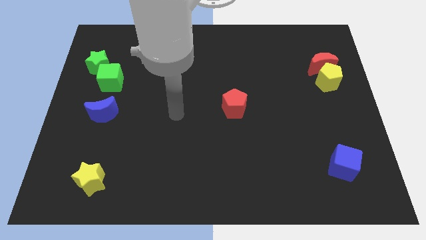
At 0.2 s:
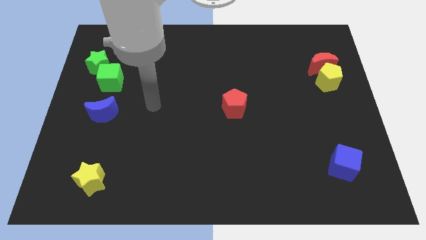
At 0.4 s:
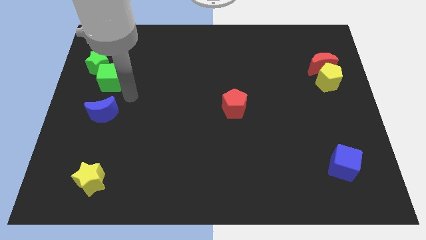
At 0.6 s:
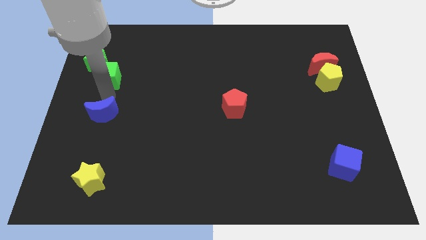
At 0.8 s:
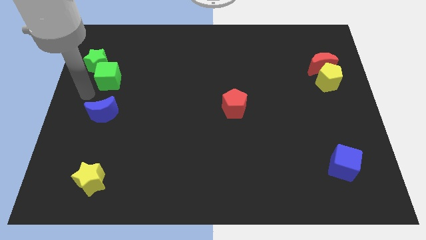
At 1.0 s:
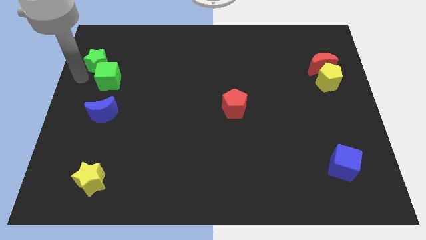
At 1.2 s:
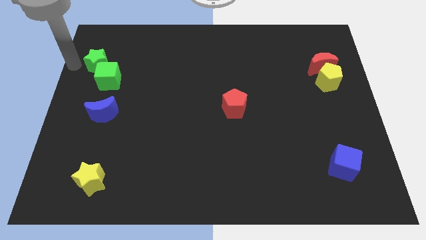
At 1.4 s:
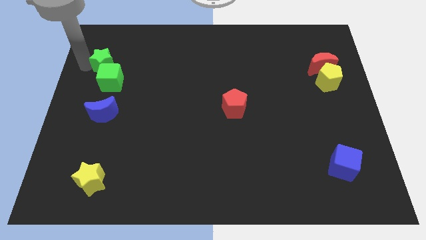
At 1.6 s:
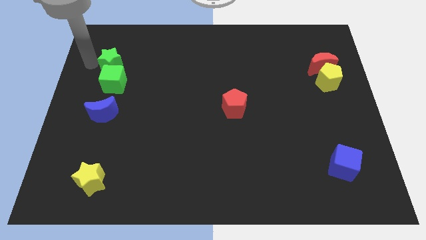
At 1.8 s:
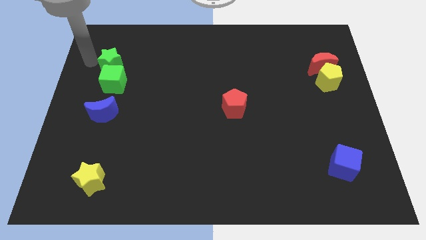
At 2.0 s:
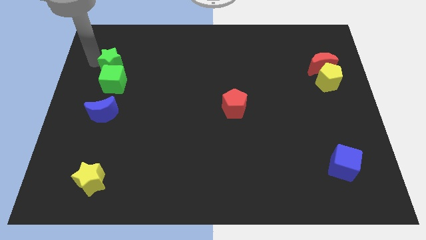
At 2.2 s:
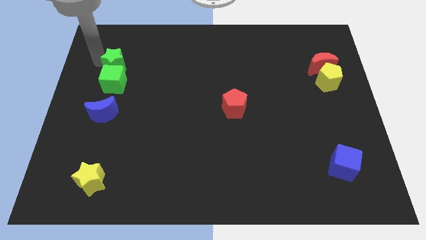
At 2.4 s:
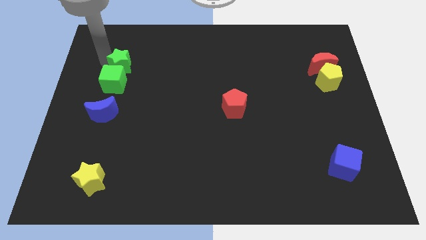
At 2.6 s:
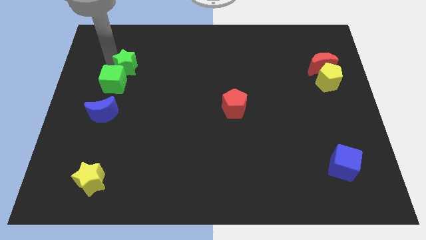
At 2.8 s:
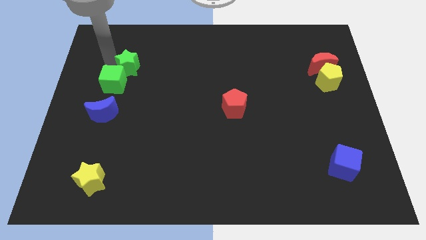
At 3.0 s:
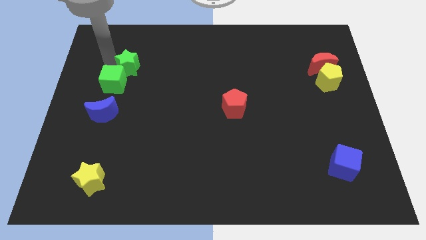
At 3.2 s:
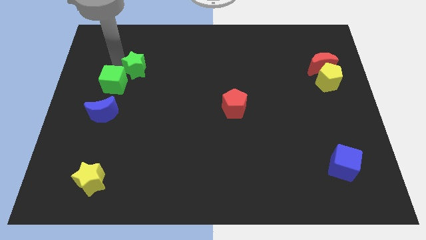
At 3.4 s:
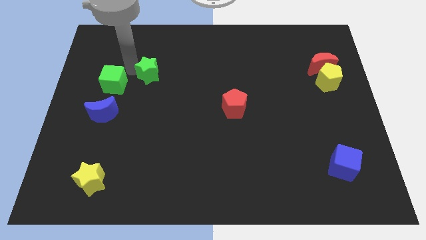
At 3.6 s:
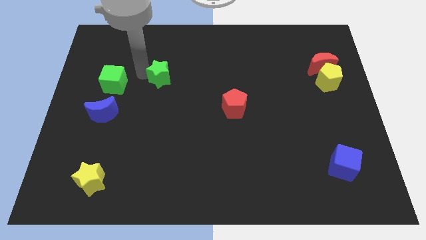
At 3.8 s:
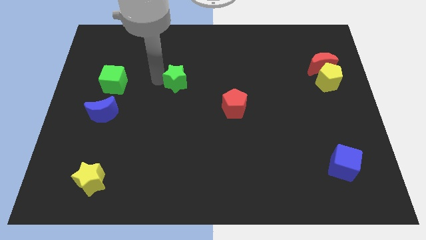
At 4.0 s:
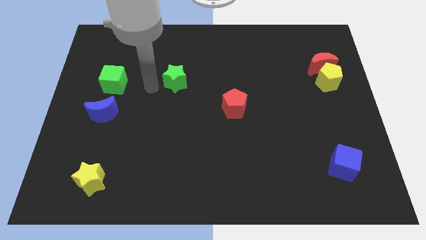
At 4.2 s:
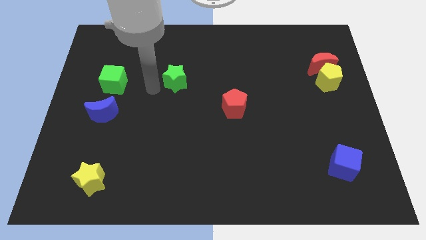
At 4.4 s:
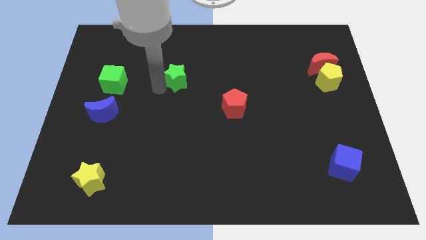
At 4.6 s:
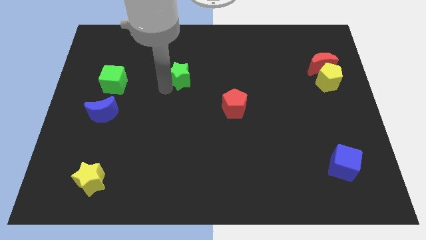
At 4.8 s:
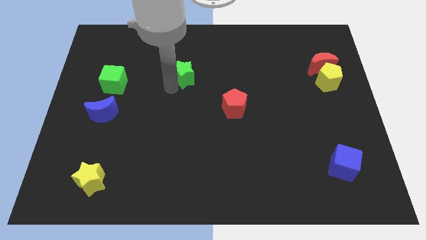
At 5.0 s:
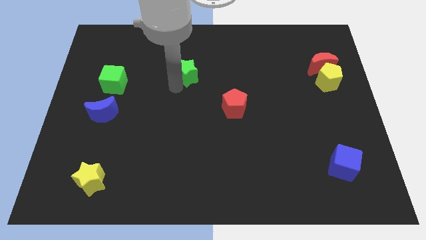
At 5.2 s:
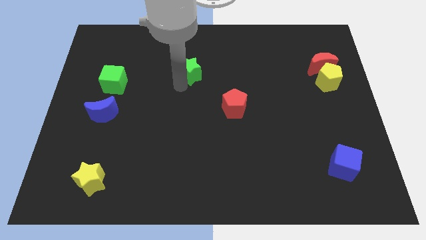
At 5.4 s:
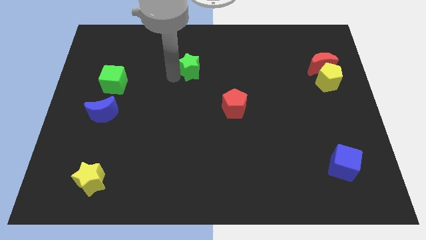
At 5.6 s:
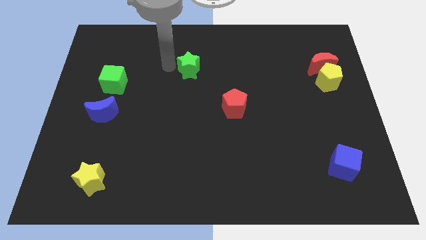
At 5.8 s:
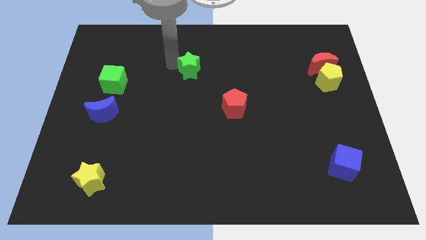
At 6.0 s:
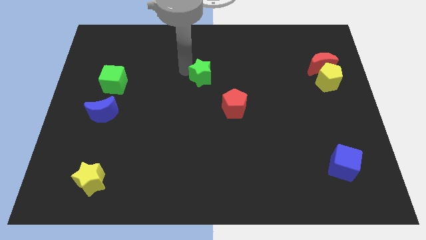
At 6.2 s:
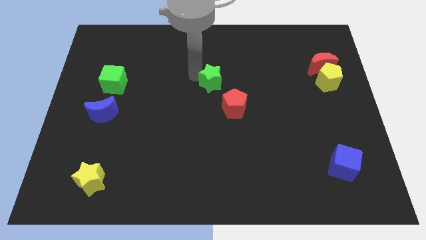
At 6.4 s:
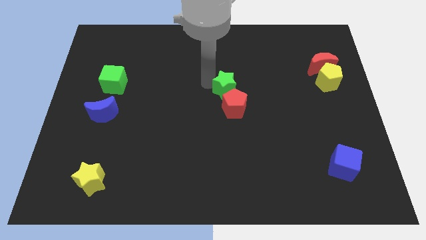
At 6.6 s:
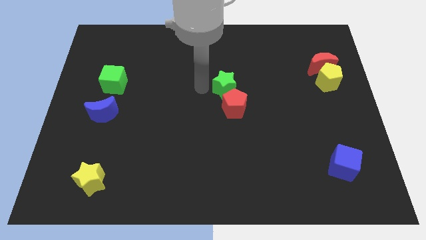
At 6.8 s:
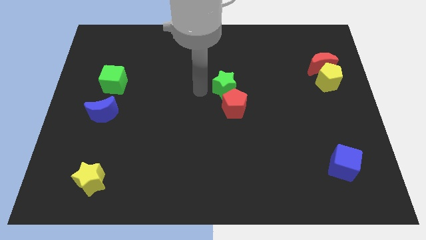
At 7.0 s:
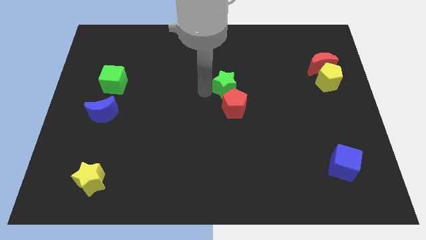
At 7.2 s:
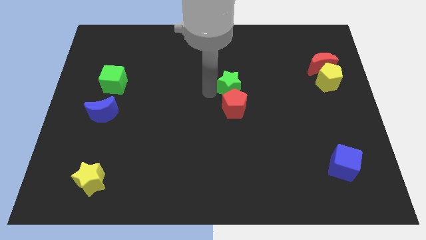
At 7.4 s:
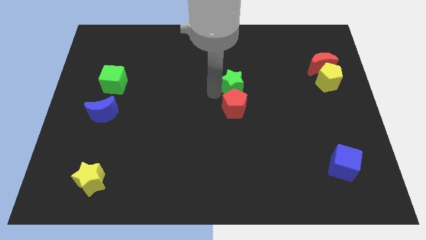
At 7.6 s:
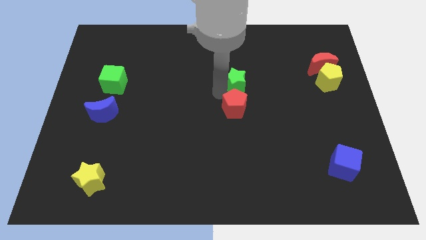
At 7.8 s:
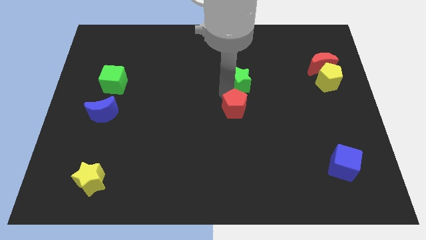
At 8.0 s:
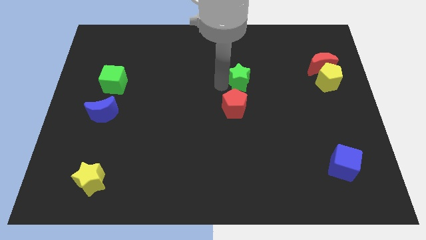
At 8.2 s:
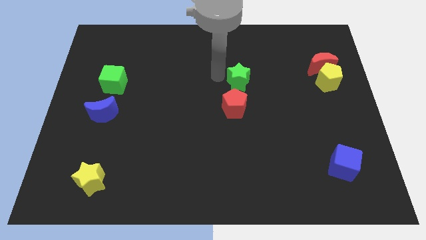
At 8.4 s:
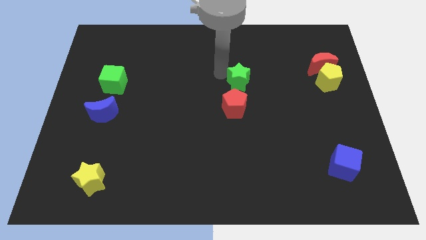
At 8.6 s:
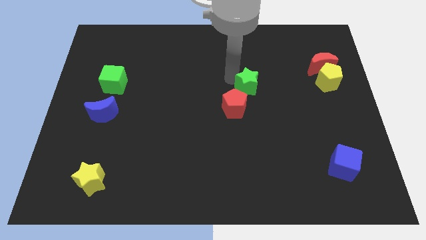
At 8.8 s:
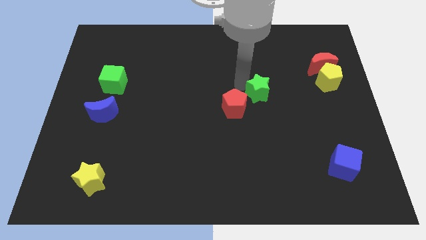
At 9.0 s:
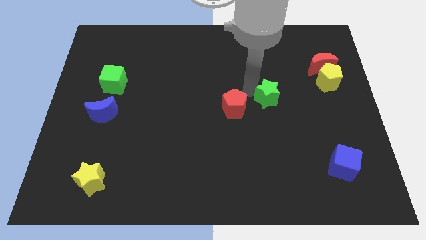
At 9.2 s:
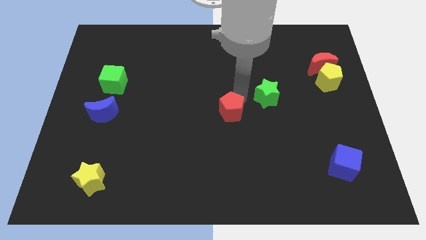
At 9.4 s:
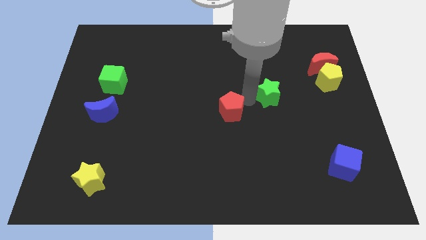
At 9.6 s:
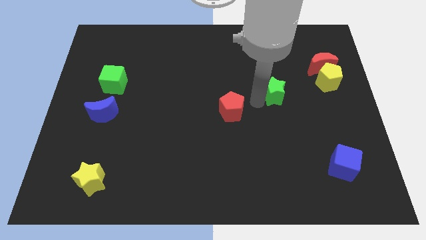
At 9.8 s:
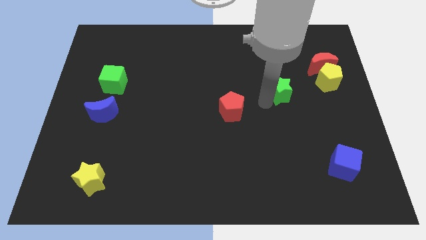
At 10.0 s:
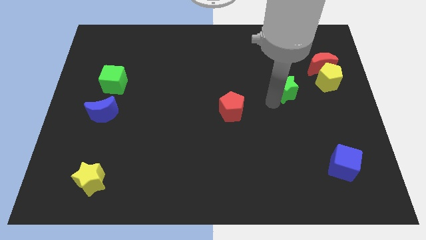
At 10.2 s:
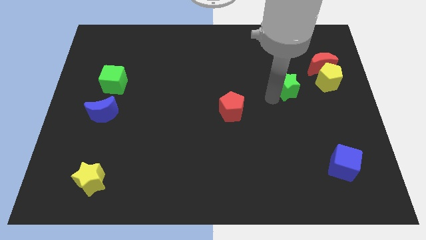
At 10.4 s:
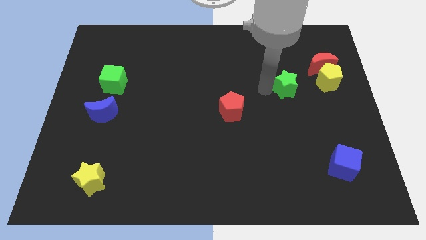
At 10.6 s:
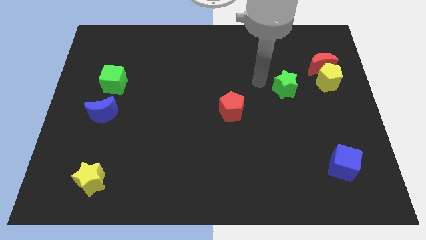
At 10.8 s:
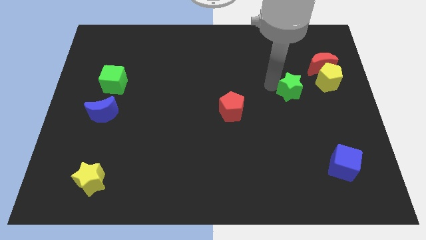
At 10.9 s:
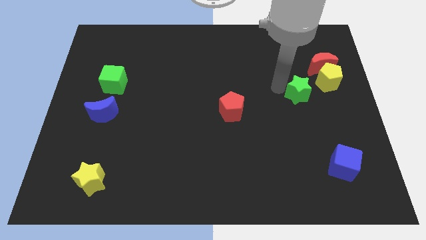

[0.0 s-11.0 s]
move the green star to the bottom left of the yellow pentagon

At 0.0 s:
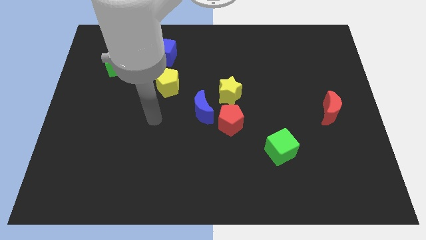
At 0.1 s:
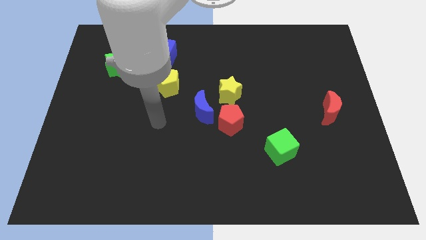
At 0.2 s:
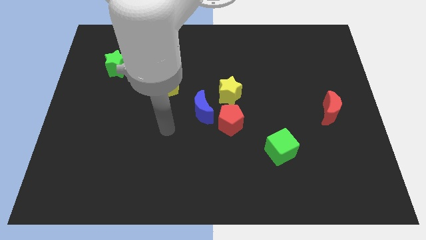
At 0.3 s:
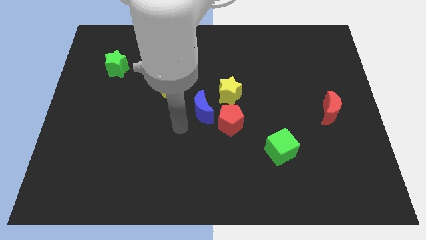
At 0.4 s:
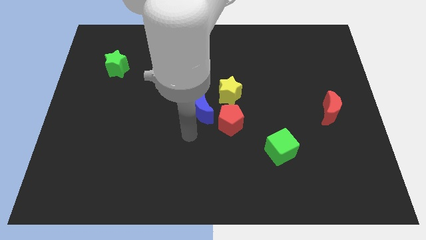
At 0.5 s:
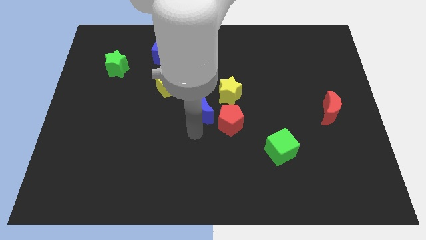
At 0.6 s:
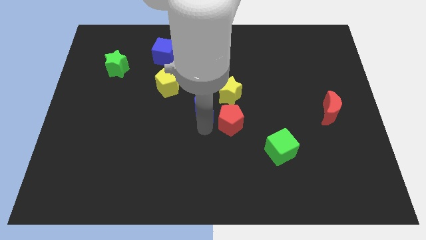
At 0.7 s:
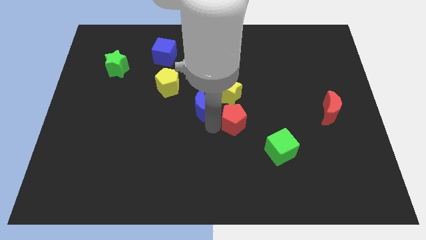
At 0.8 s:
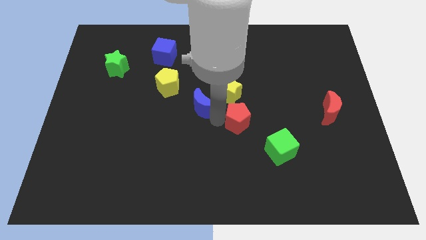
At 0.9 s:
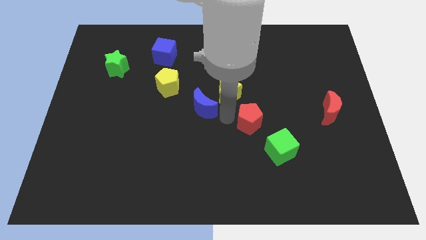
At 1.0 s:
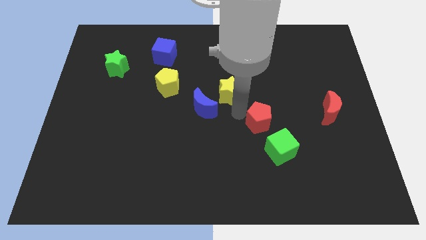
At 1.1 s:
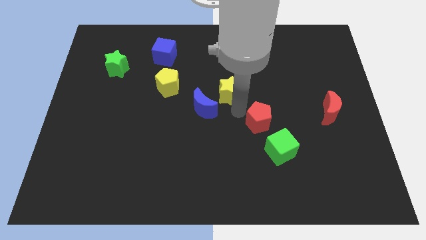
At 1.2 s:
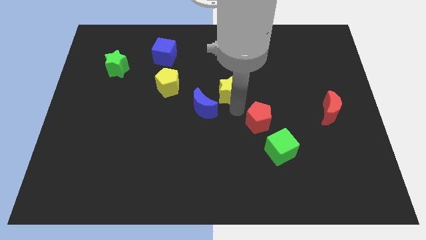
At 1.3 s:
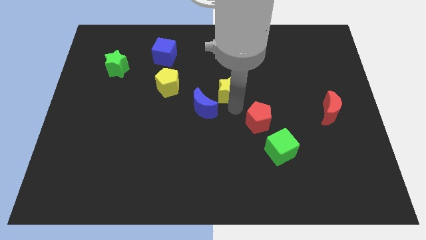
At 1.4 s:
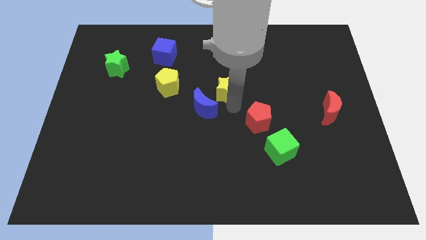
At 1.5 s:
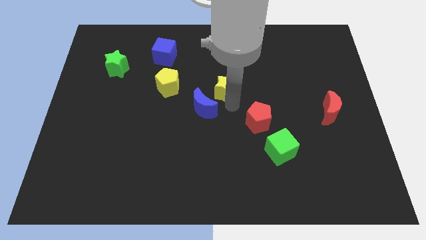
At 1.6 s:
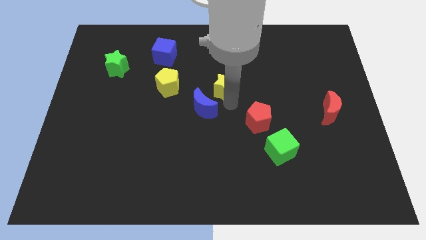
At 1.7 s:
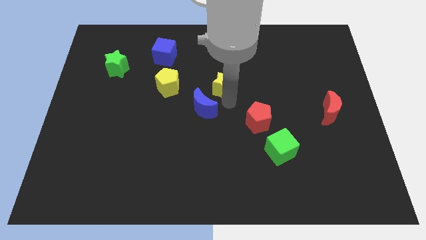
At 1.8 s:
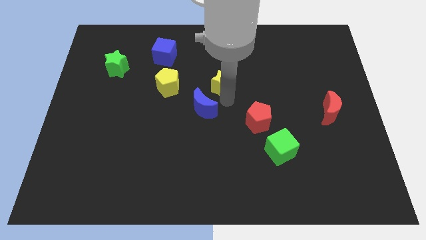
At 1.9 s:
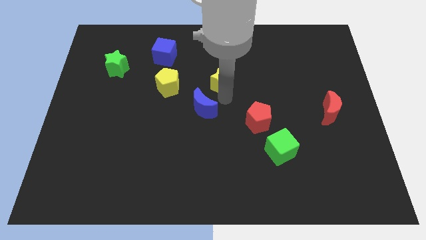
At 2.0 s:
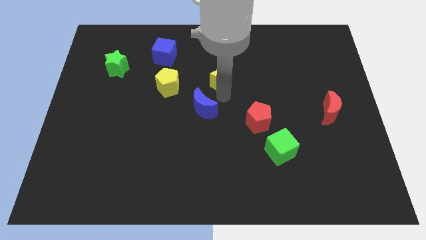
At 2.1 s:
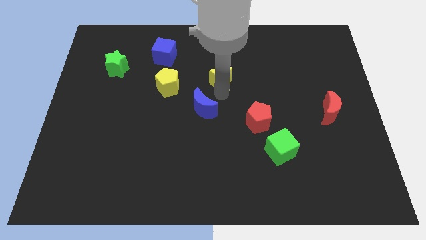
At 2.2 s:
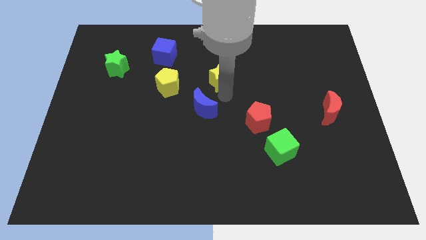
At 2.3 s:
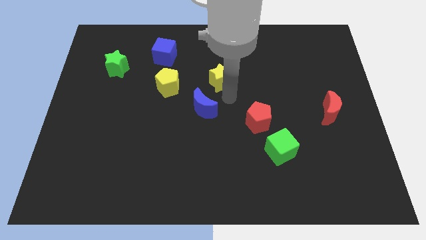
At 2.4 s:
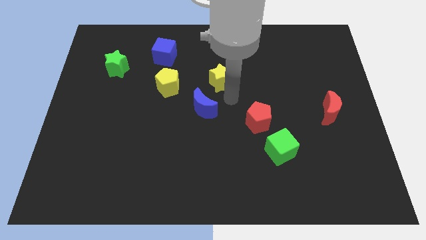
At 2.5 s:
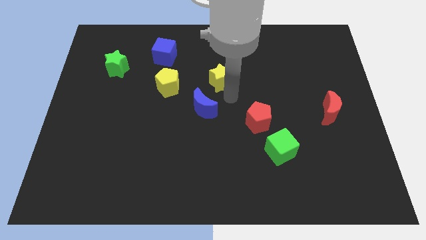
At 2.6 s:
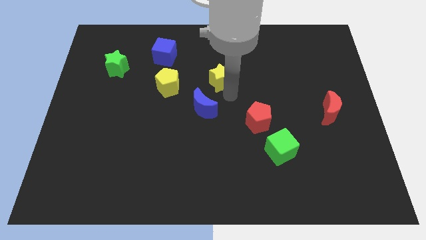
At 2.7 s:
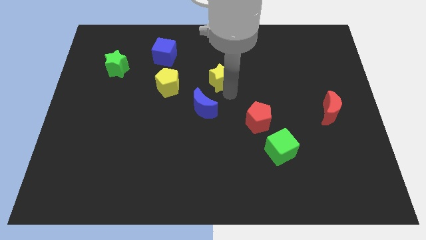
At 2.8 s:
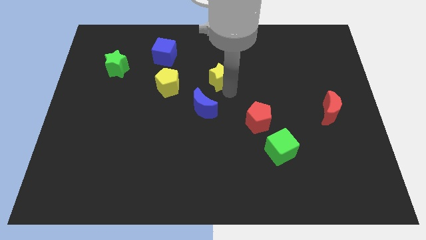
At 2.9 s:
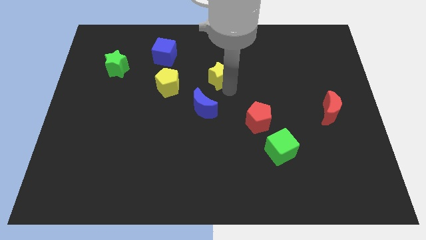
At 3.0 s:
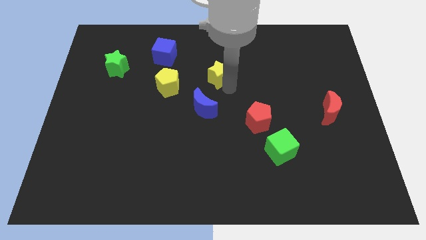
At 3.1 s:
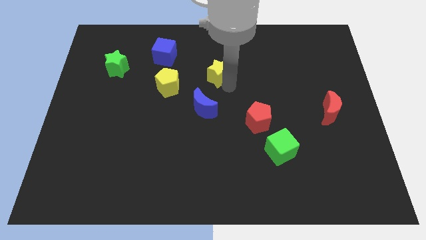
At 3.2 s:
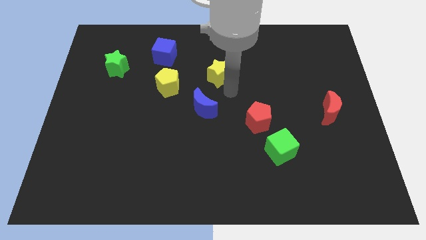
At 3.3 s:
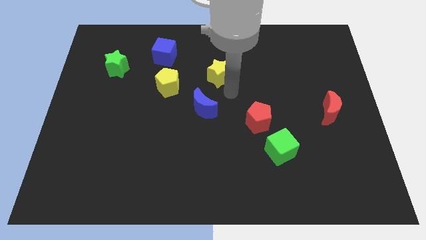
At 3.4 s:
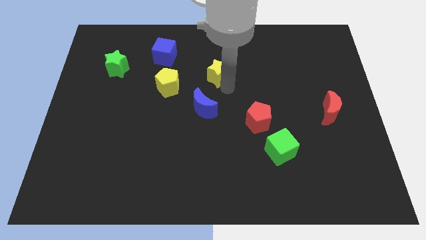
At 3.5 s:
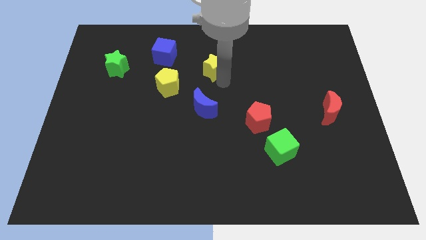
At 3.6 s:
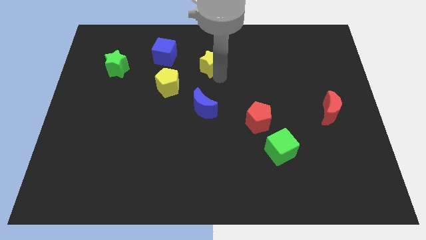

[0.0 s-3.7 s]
put the yellow star right of the blue cube
